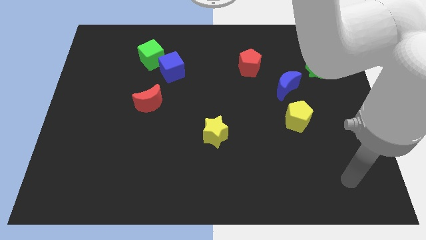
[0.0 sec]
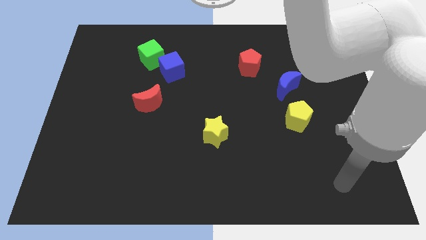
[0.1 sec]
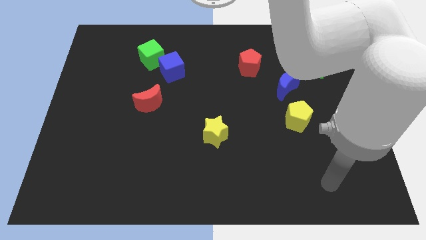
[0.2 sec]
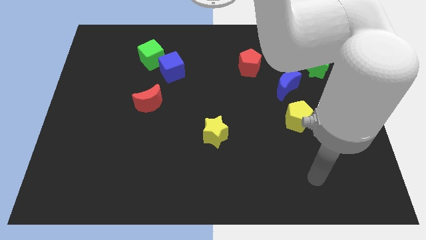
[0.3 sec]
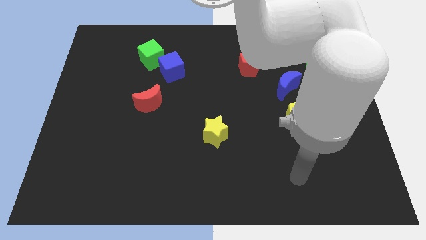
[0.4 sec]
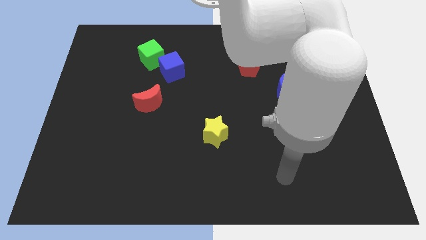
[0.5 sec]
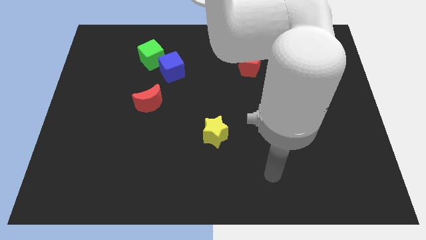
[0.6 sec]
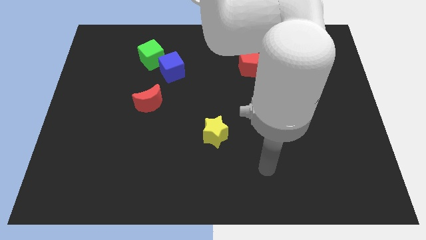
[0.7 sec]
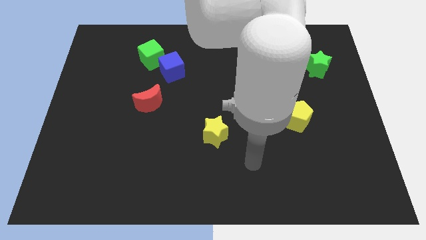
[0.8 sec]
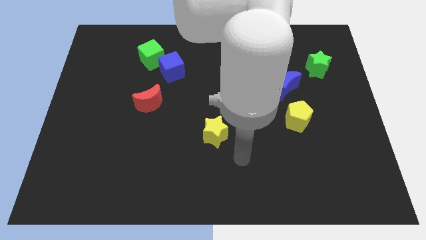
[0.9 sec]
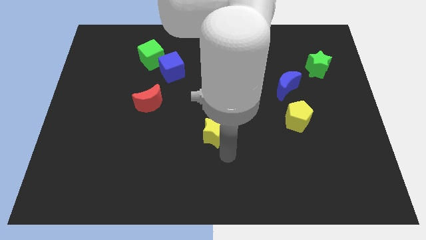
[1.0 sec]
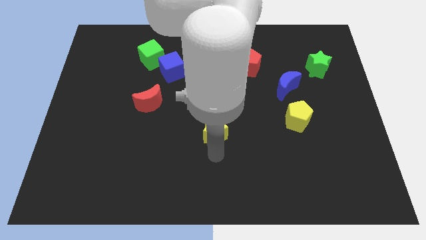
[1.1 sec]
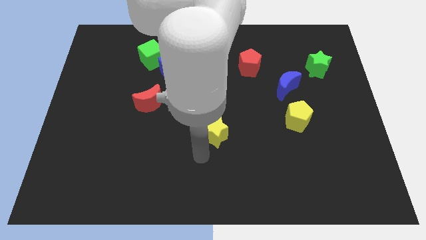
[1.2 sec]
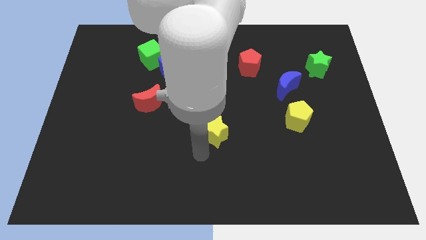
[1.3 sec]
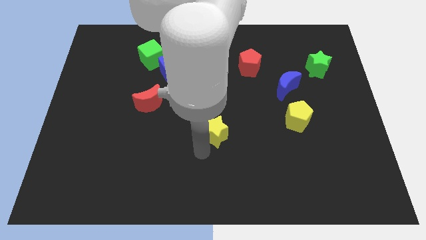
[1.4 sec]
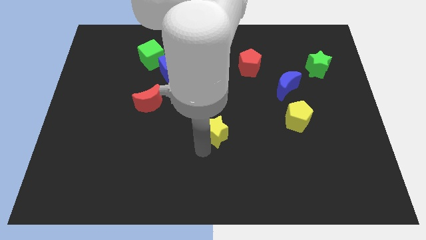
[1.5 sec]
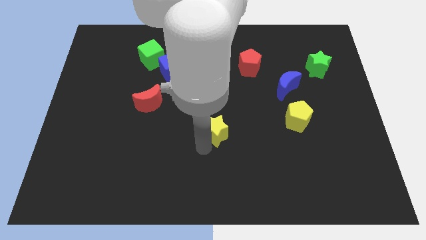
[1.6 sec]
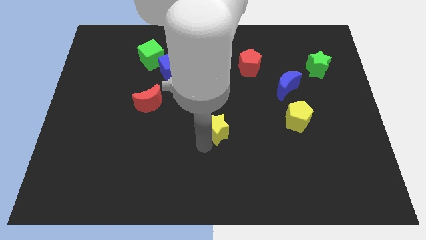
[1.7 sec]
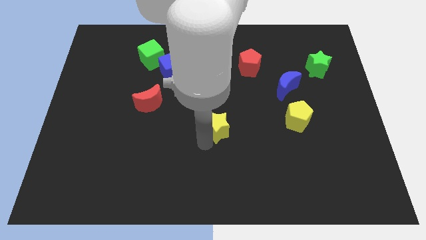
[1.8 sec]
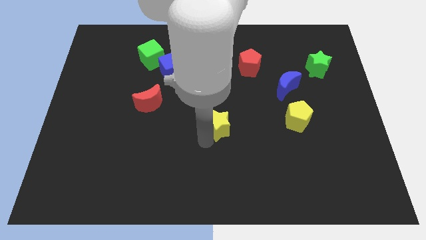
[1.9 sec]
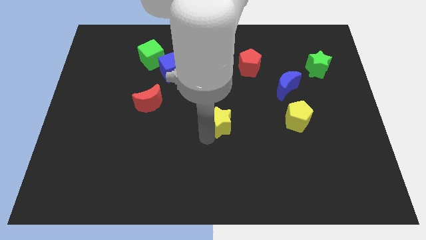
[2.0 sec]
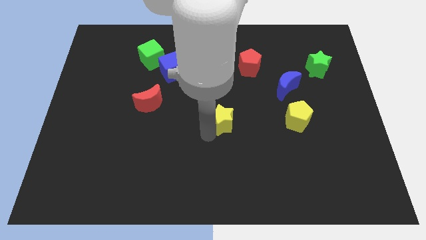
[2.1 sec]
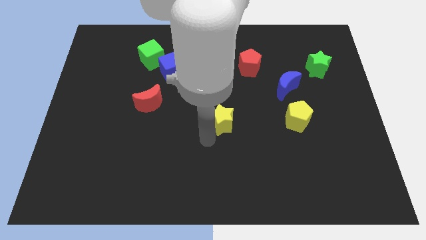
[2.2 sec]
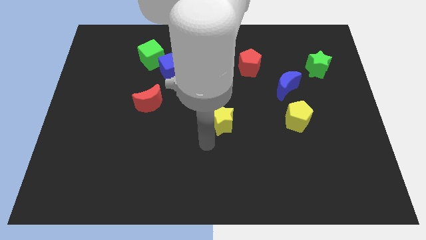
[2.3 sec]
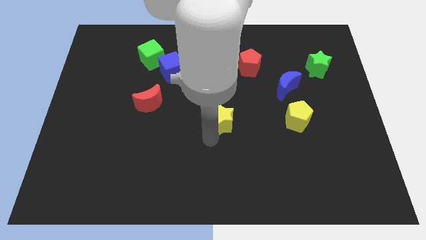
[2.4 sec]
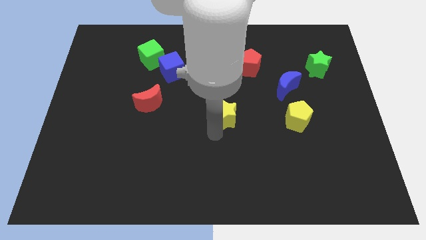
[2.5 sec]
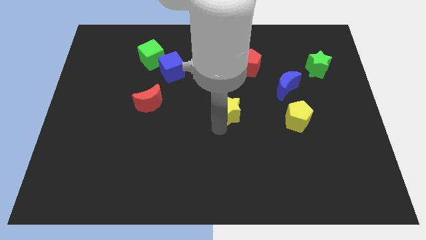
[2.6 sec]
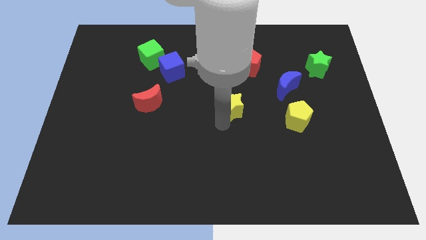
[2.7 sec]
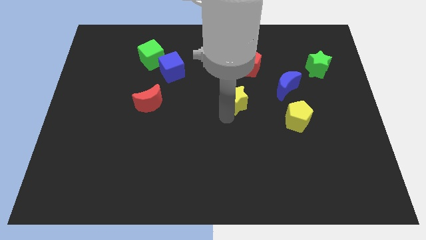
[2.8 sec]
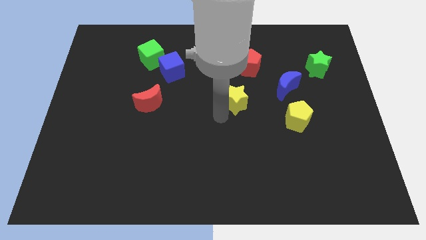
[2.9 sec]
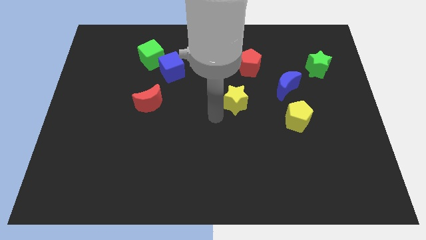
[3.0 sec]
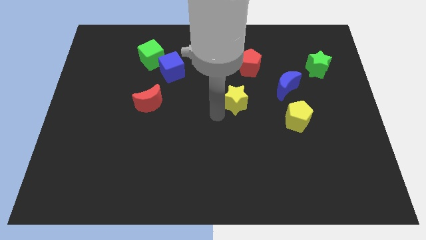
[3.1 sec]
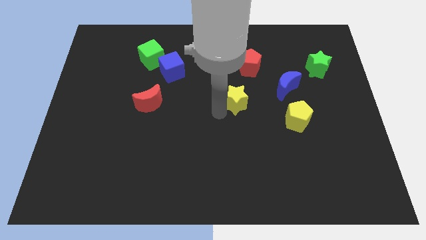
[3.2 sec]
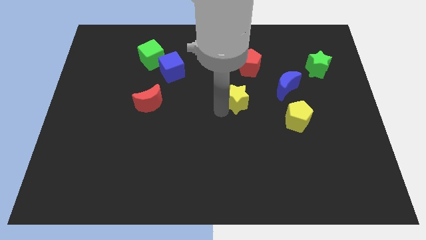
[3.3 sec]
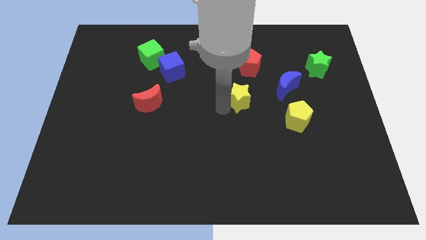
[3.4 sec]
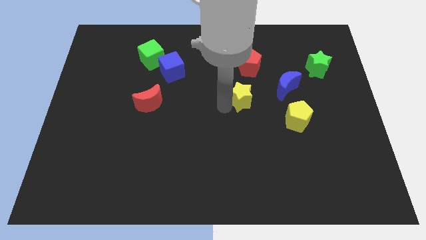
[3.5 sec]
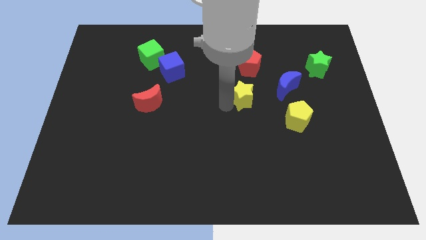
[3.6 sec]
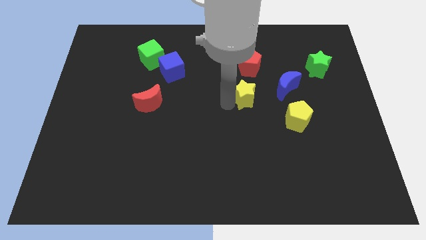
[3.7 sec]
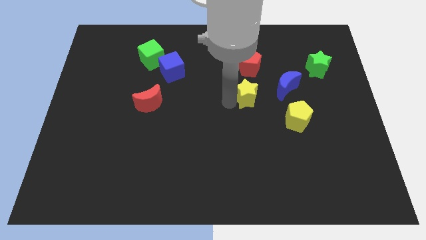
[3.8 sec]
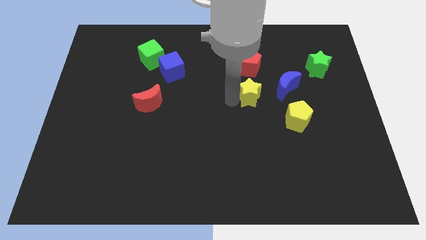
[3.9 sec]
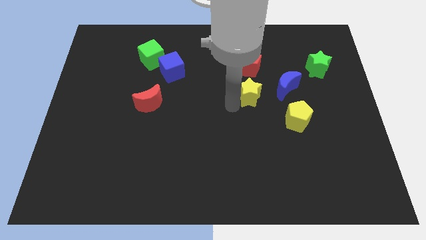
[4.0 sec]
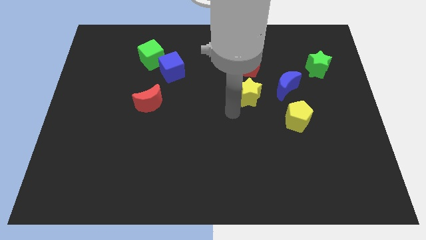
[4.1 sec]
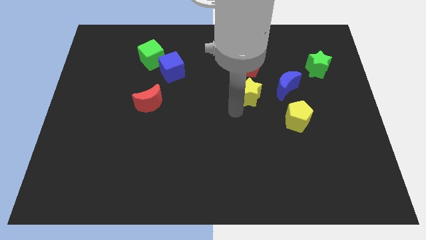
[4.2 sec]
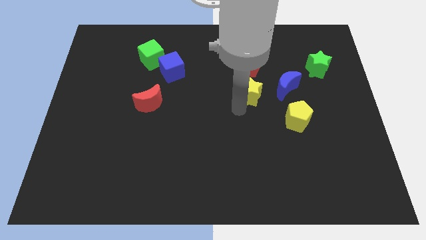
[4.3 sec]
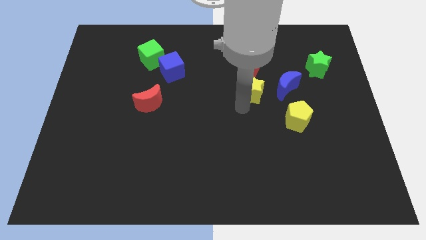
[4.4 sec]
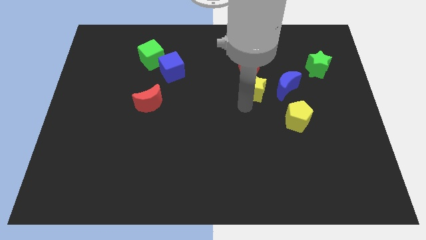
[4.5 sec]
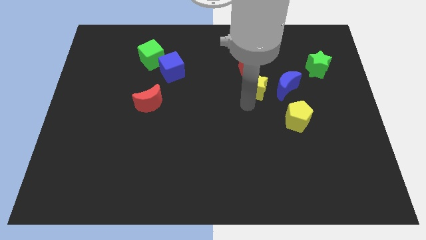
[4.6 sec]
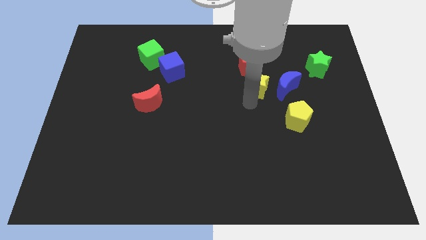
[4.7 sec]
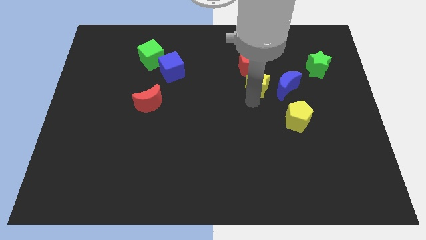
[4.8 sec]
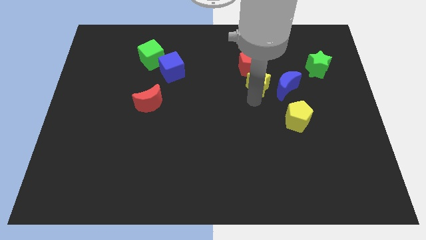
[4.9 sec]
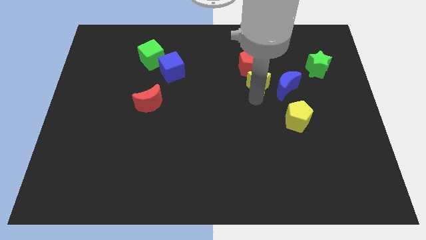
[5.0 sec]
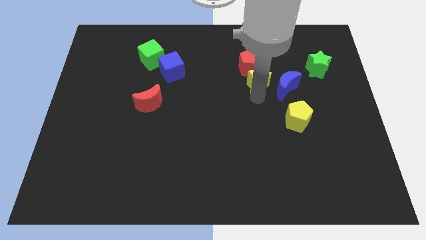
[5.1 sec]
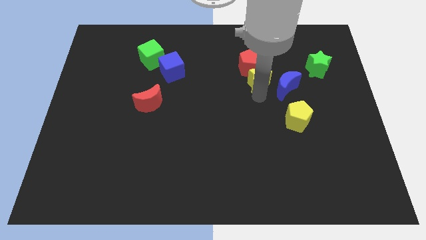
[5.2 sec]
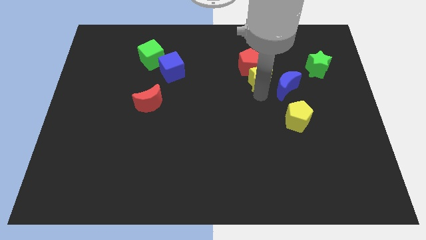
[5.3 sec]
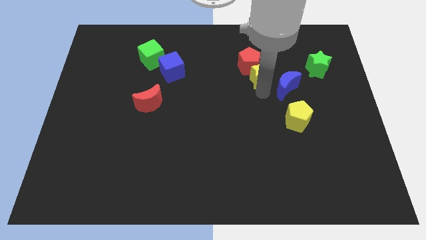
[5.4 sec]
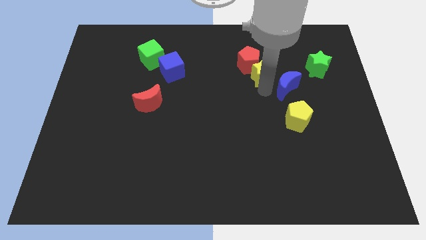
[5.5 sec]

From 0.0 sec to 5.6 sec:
put the yellow star just right of the red pentagon

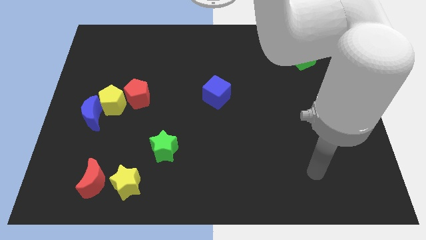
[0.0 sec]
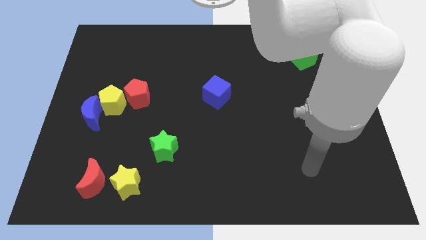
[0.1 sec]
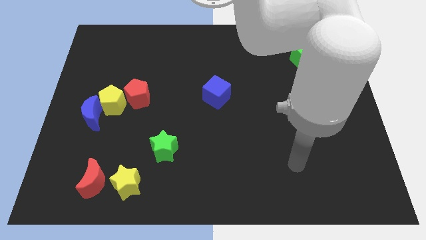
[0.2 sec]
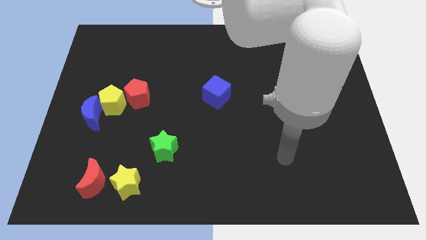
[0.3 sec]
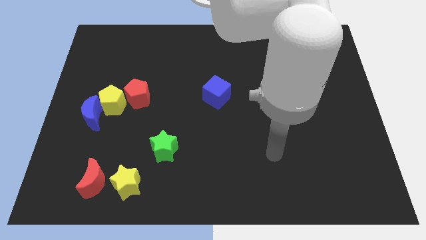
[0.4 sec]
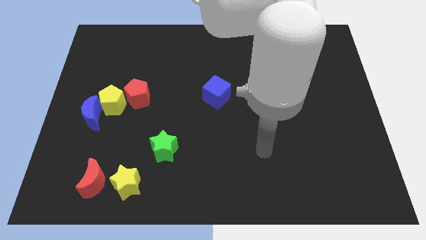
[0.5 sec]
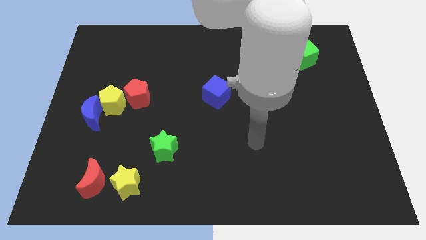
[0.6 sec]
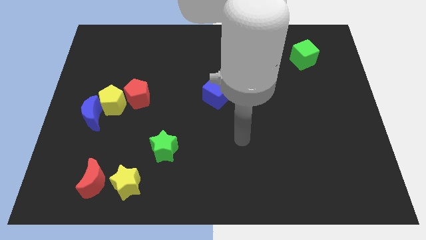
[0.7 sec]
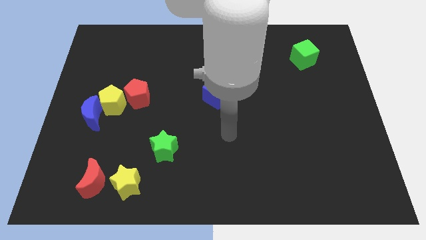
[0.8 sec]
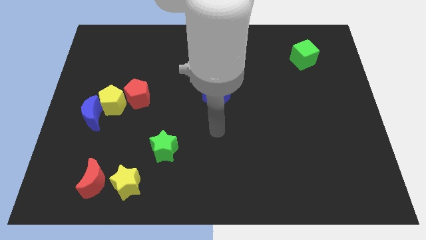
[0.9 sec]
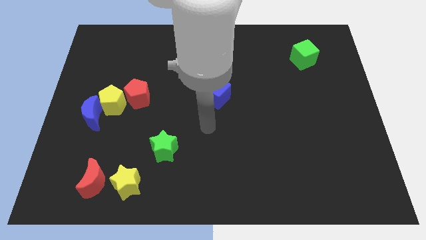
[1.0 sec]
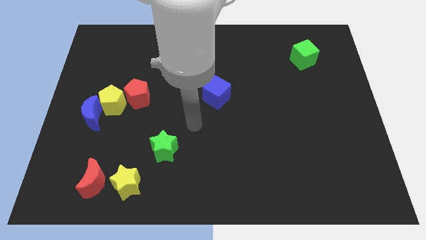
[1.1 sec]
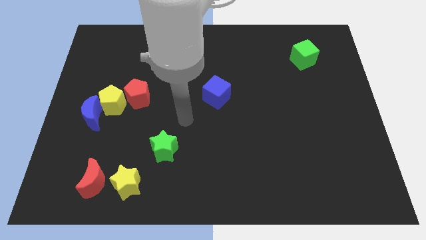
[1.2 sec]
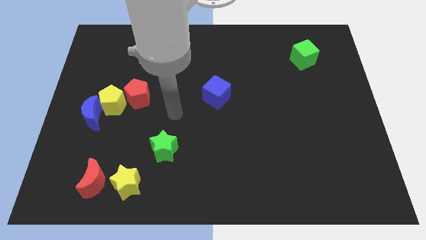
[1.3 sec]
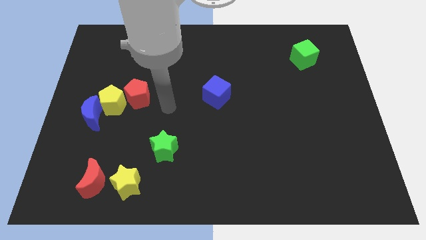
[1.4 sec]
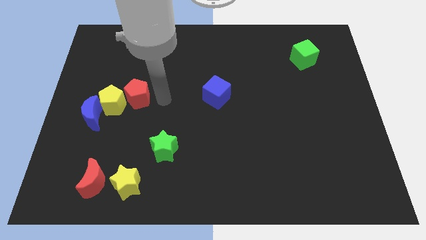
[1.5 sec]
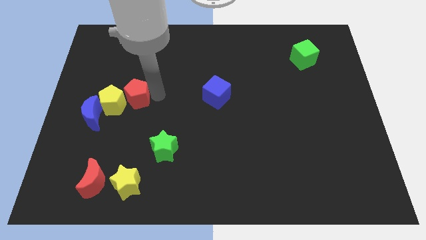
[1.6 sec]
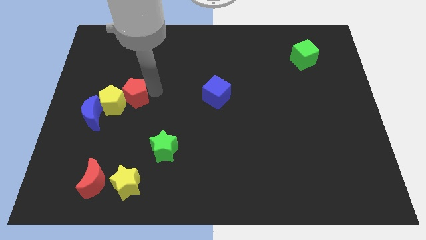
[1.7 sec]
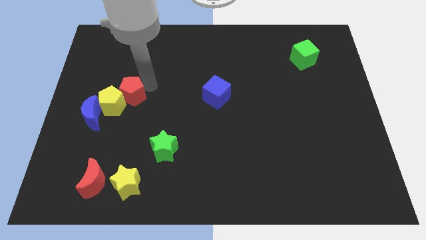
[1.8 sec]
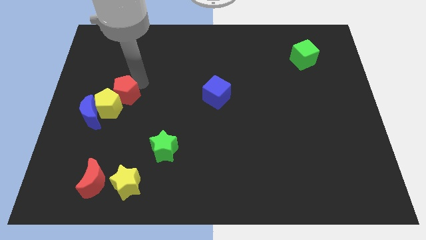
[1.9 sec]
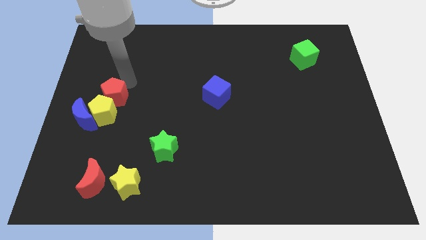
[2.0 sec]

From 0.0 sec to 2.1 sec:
move the yellow pentagon to the bottom right of the blue moon
